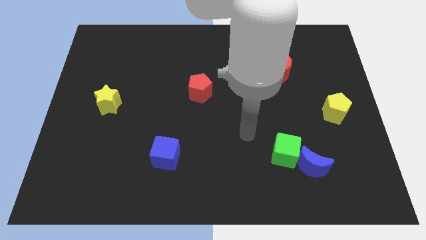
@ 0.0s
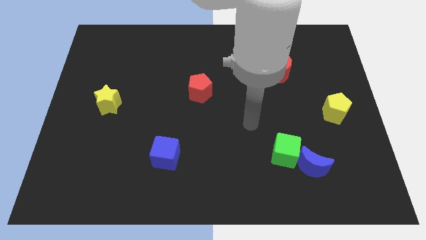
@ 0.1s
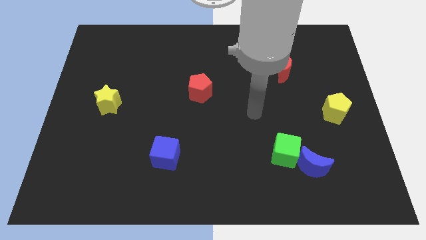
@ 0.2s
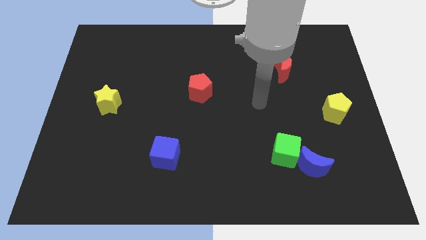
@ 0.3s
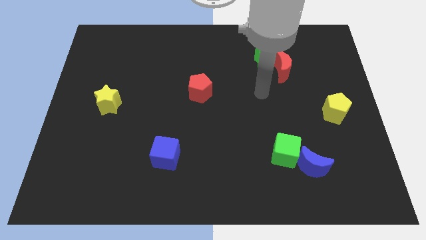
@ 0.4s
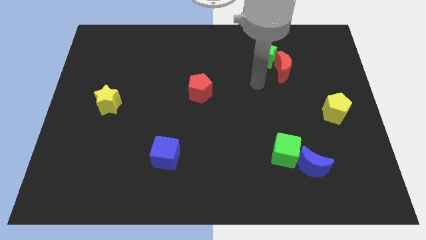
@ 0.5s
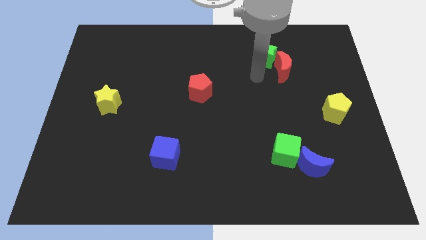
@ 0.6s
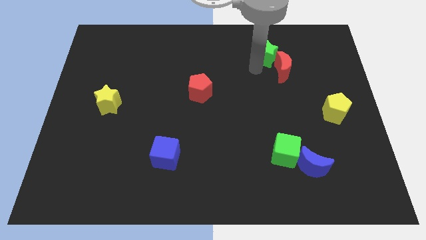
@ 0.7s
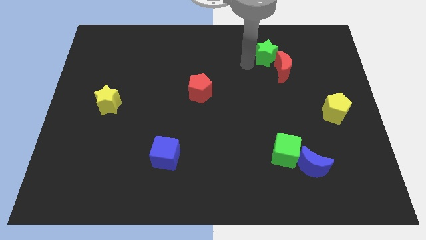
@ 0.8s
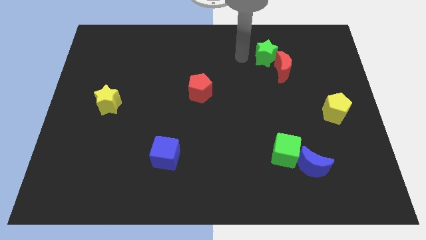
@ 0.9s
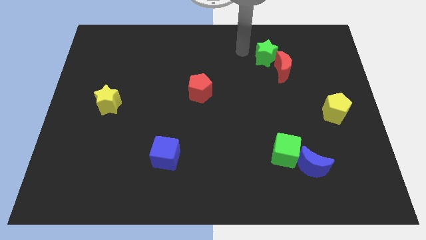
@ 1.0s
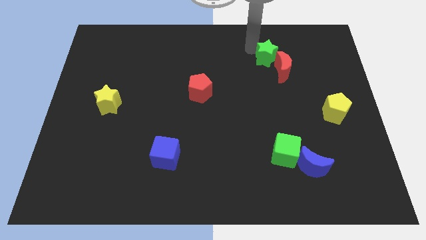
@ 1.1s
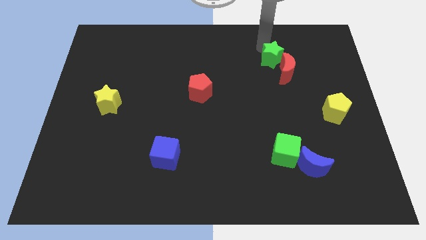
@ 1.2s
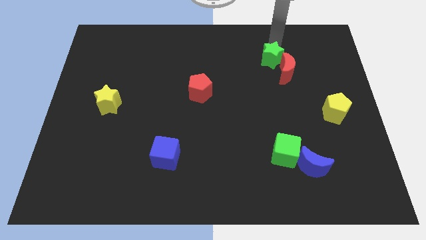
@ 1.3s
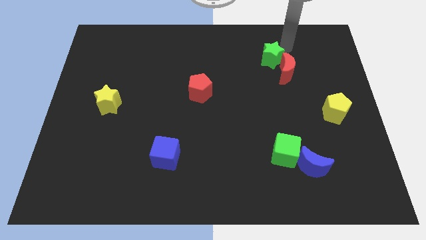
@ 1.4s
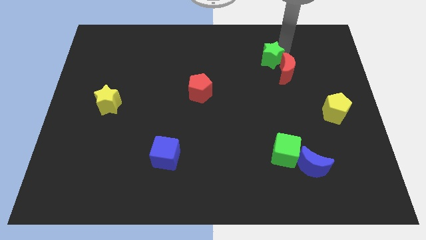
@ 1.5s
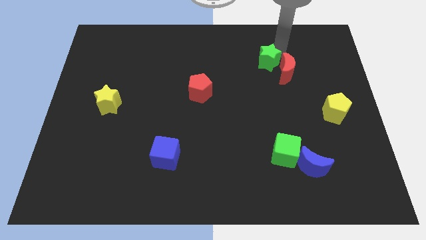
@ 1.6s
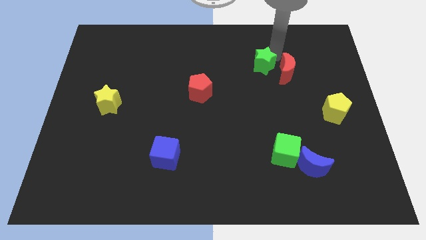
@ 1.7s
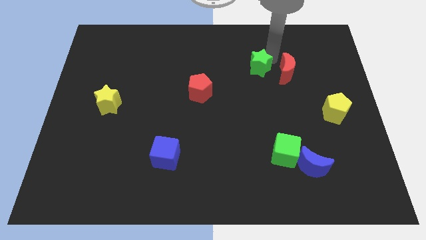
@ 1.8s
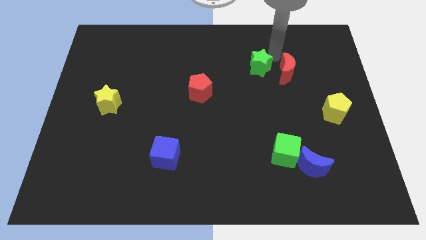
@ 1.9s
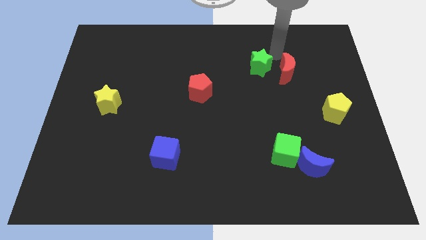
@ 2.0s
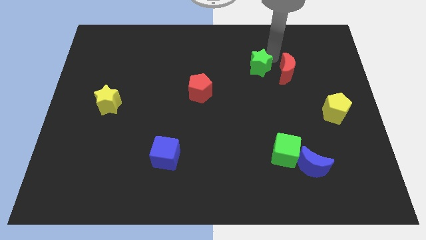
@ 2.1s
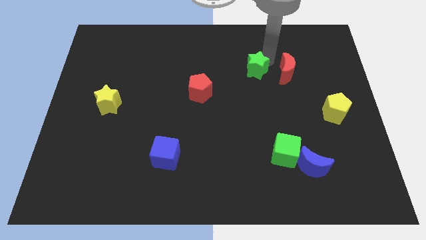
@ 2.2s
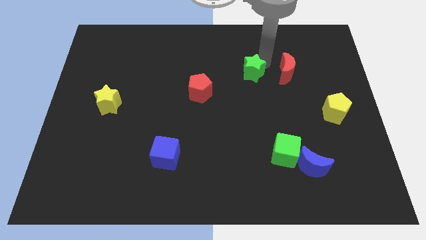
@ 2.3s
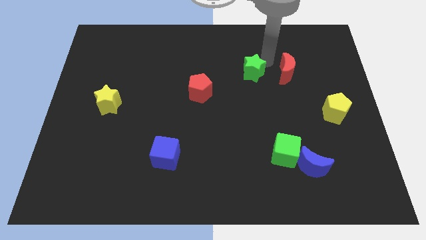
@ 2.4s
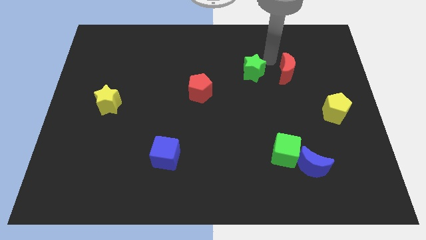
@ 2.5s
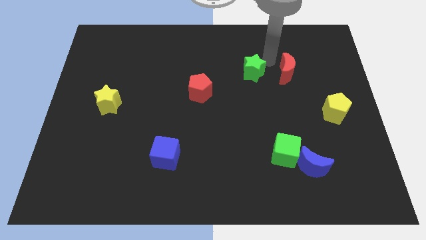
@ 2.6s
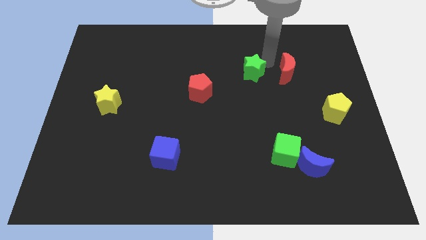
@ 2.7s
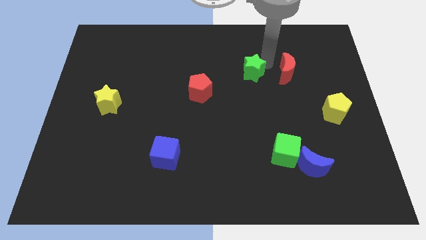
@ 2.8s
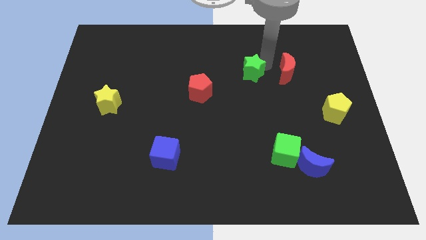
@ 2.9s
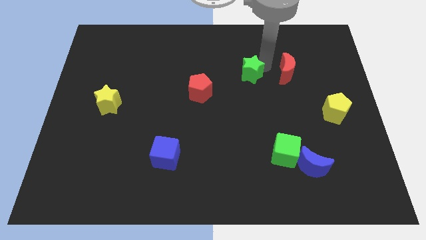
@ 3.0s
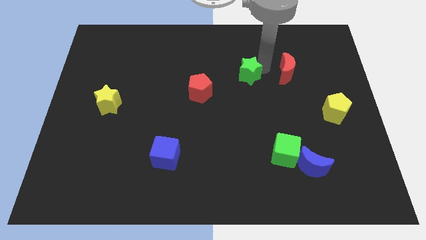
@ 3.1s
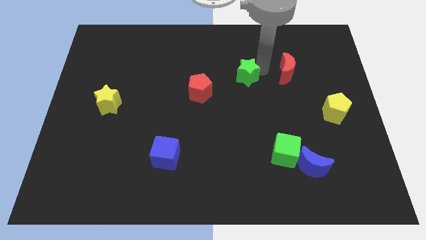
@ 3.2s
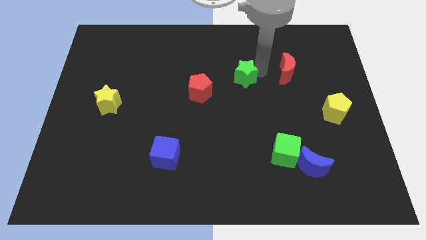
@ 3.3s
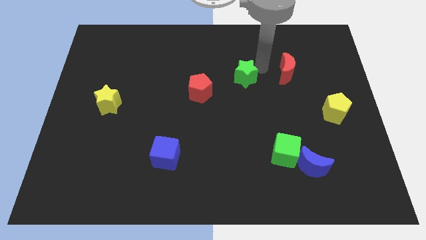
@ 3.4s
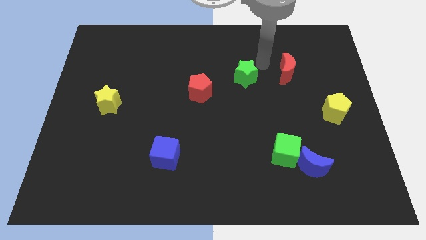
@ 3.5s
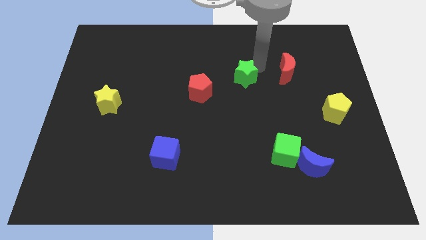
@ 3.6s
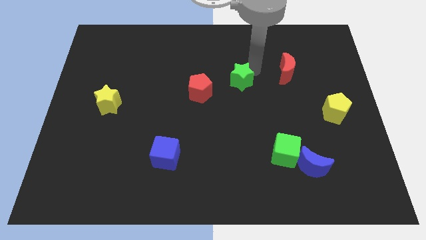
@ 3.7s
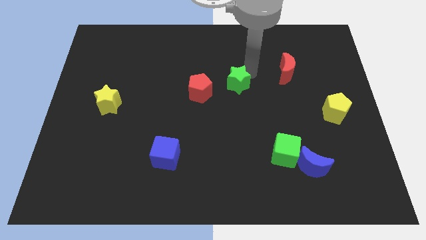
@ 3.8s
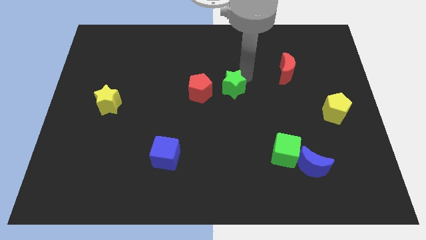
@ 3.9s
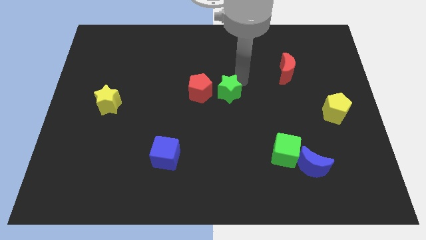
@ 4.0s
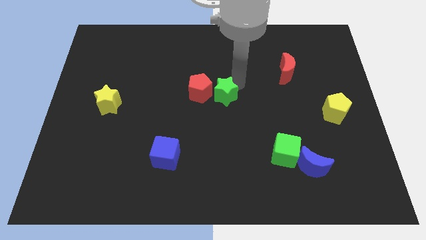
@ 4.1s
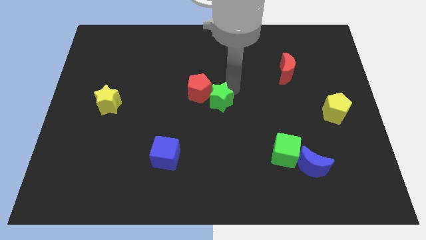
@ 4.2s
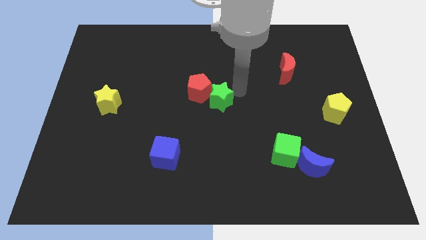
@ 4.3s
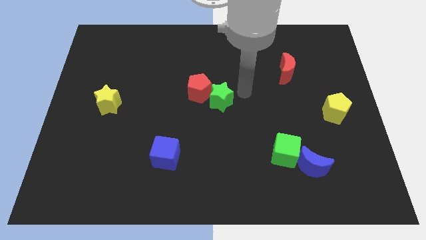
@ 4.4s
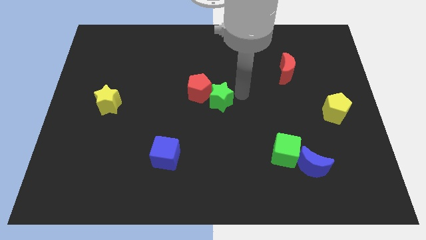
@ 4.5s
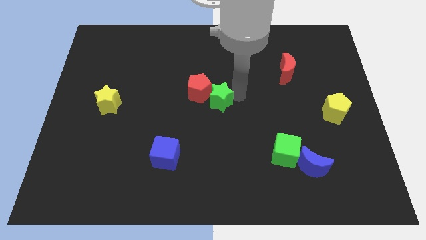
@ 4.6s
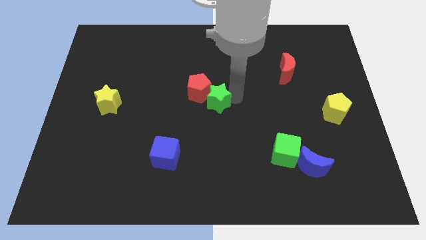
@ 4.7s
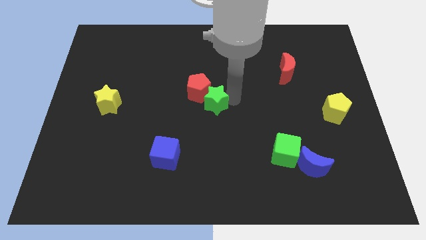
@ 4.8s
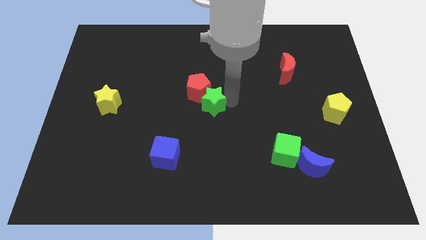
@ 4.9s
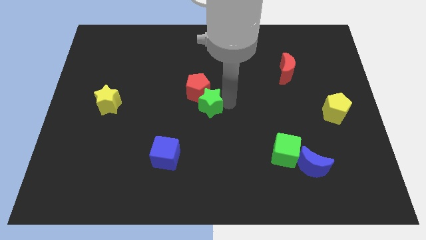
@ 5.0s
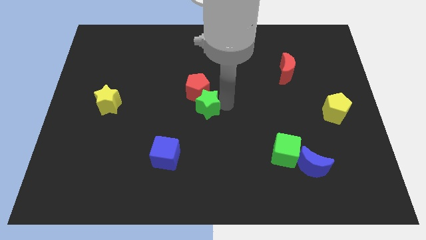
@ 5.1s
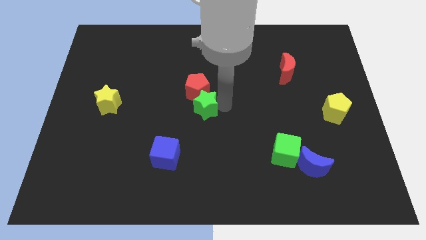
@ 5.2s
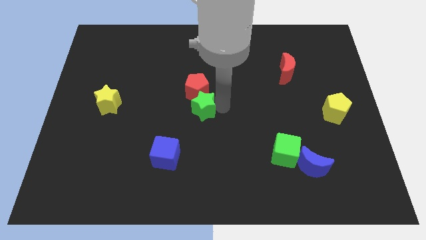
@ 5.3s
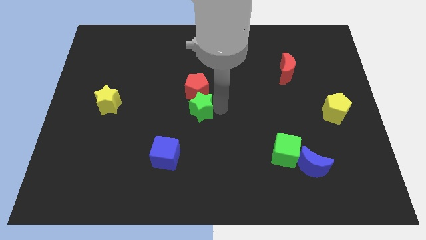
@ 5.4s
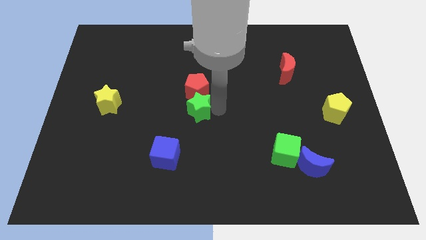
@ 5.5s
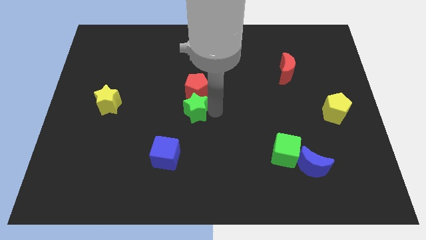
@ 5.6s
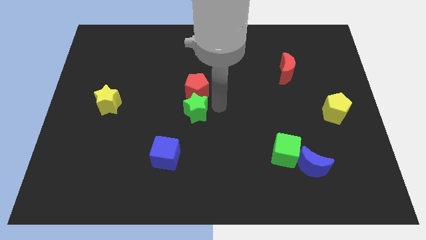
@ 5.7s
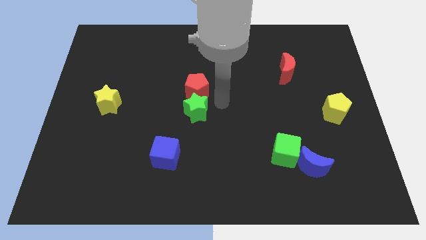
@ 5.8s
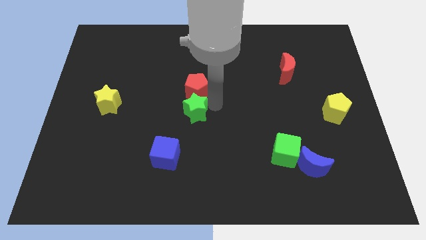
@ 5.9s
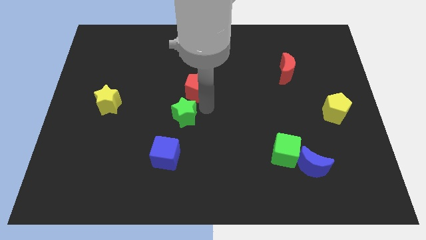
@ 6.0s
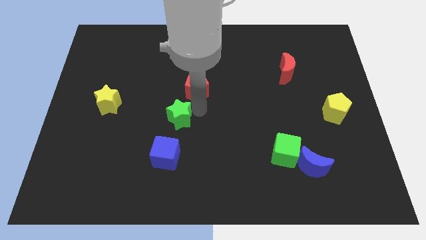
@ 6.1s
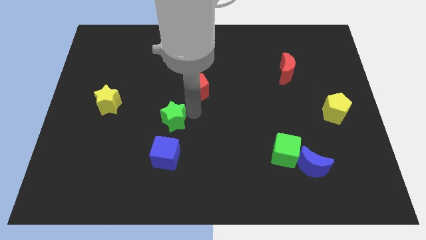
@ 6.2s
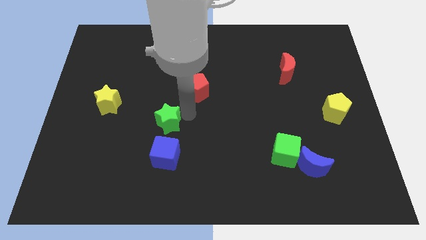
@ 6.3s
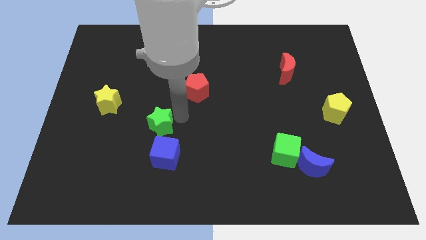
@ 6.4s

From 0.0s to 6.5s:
slide the green star to the top left side of the blue cube

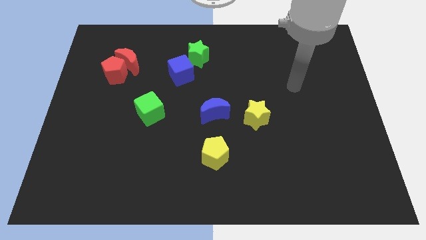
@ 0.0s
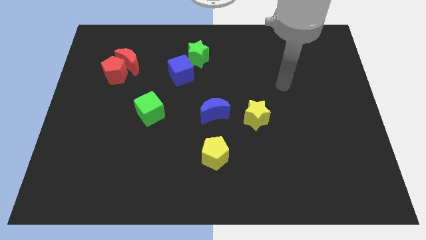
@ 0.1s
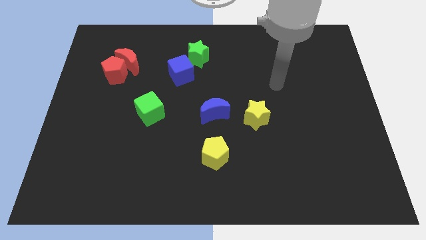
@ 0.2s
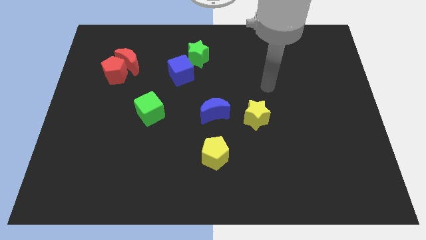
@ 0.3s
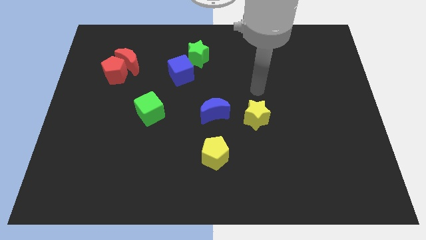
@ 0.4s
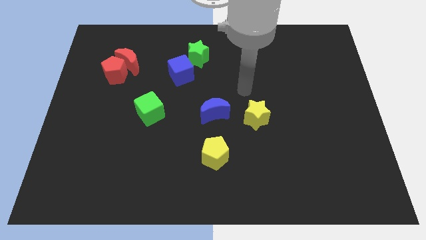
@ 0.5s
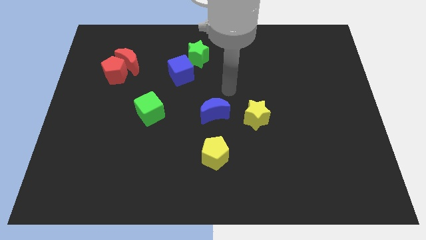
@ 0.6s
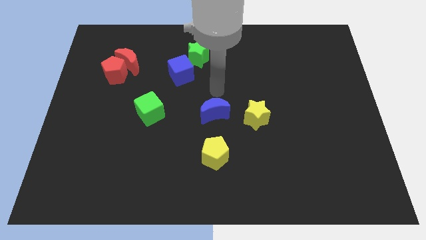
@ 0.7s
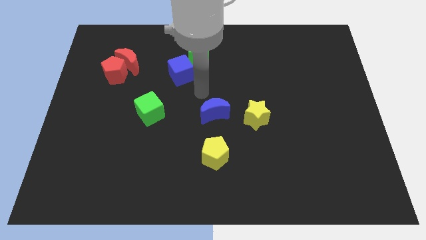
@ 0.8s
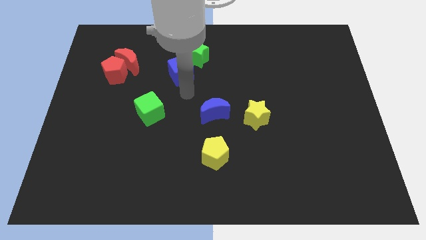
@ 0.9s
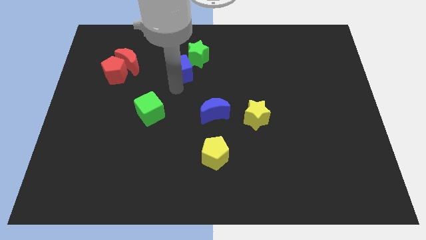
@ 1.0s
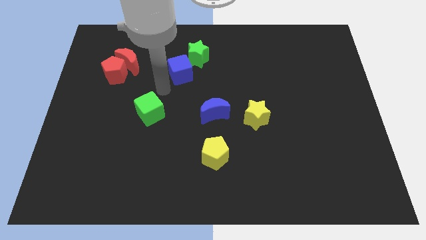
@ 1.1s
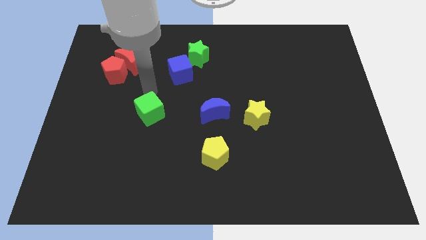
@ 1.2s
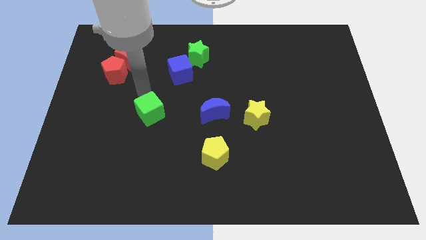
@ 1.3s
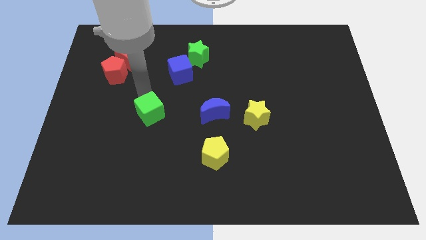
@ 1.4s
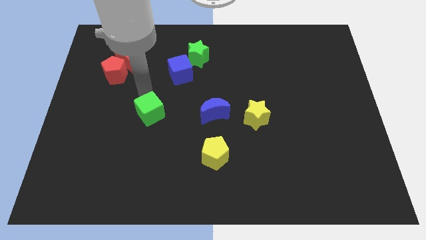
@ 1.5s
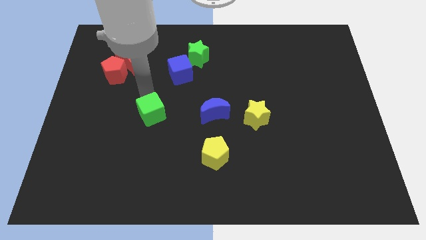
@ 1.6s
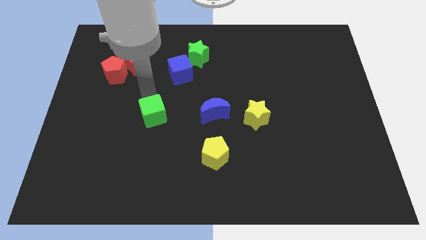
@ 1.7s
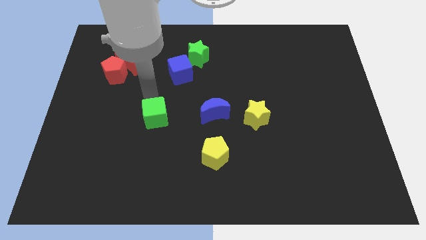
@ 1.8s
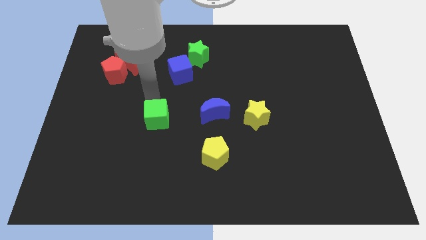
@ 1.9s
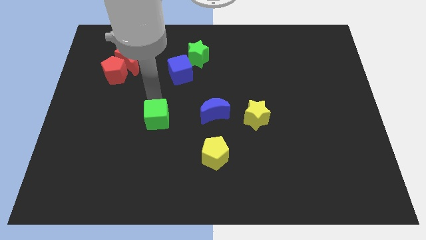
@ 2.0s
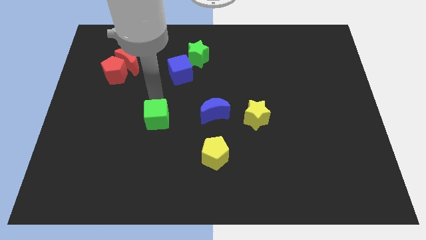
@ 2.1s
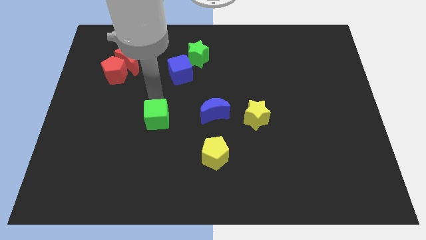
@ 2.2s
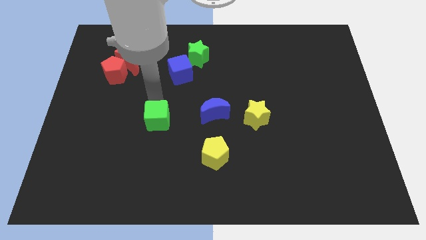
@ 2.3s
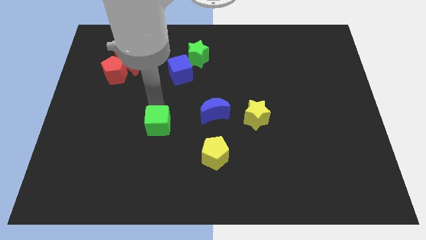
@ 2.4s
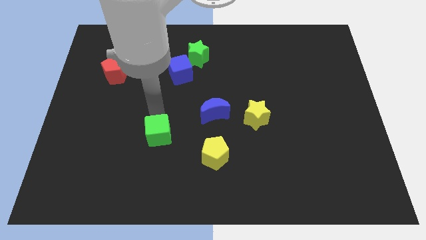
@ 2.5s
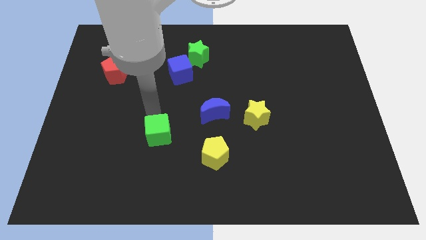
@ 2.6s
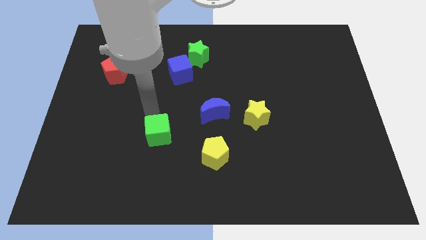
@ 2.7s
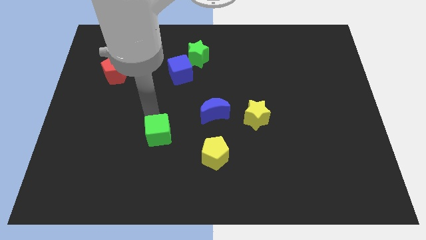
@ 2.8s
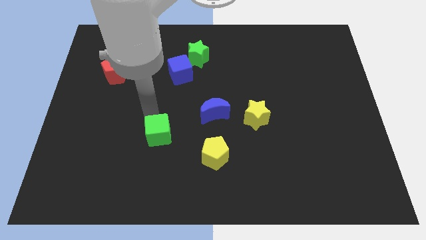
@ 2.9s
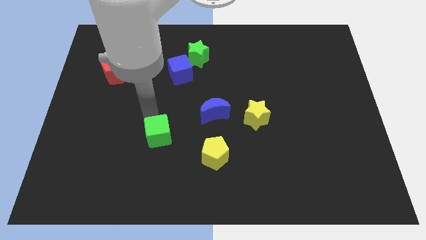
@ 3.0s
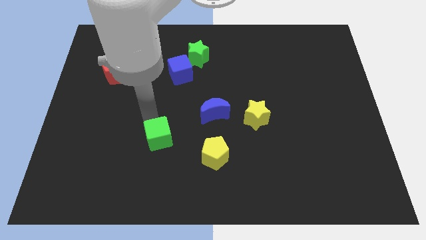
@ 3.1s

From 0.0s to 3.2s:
slide the green cube just left of the yellow pentagon
